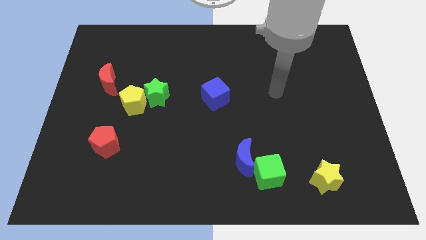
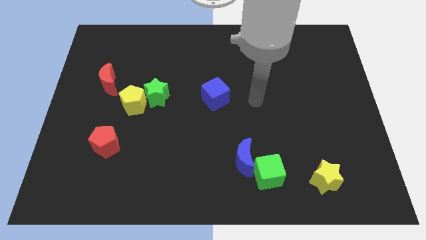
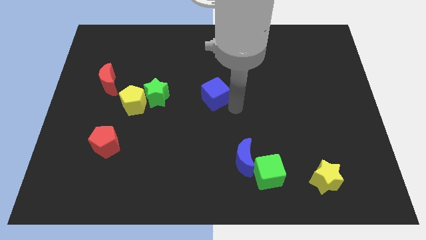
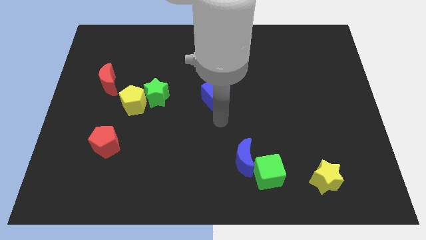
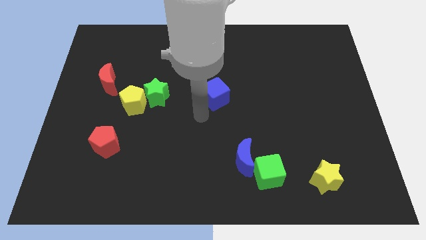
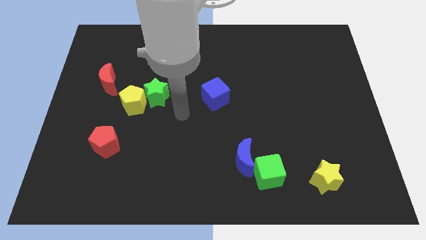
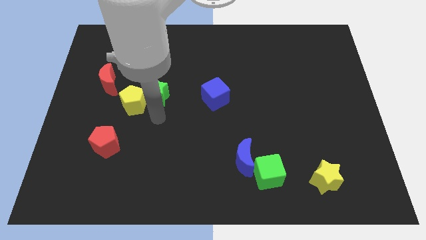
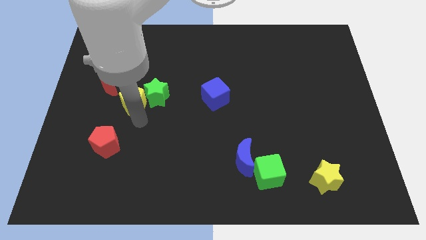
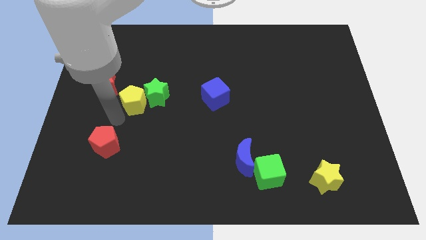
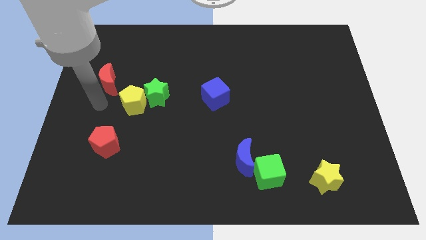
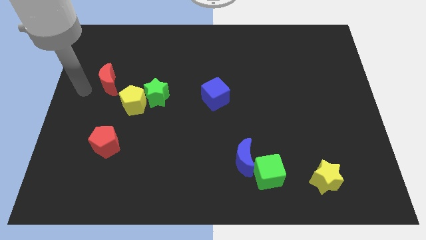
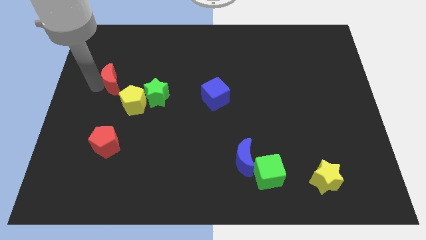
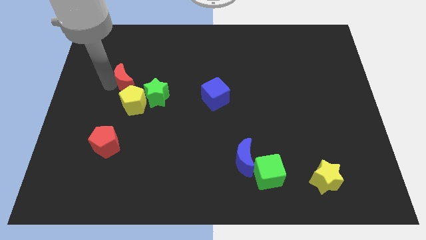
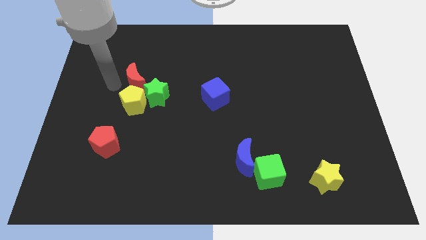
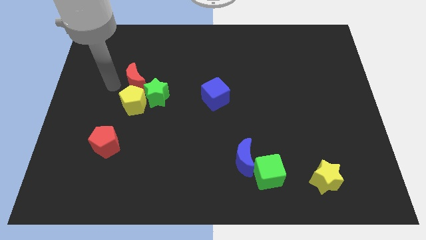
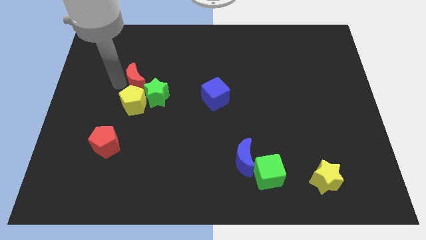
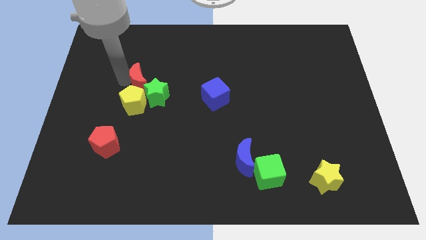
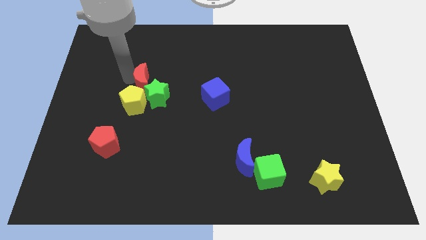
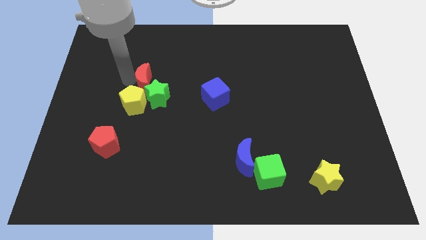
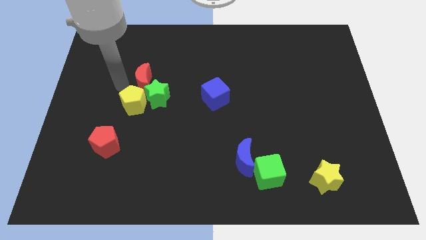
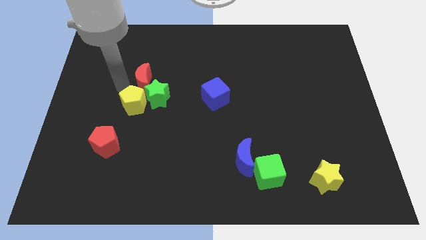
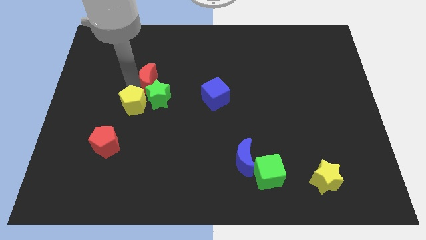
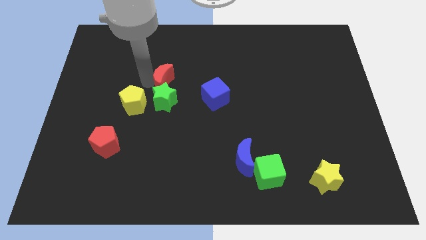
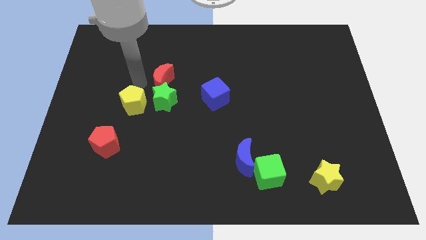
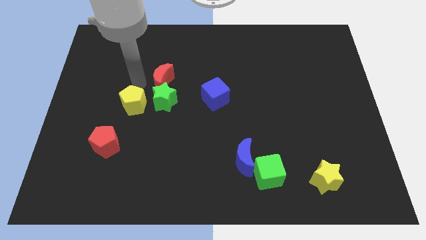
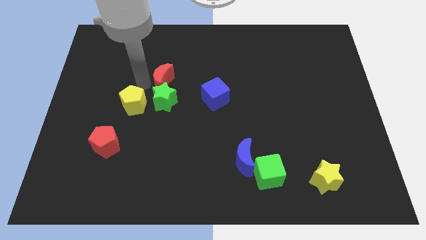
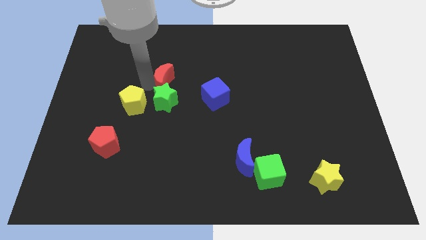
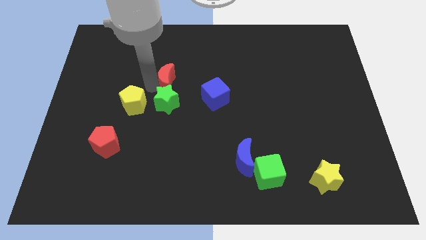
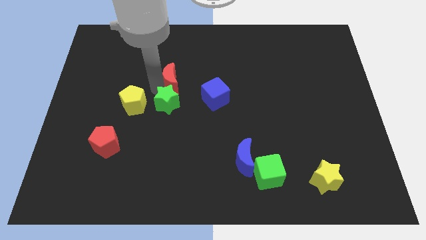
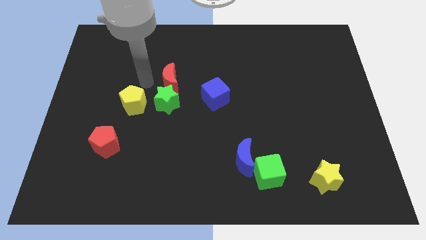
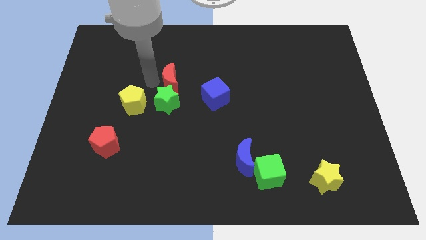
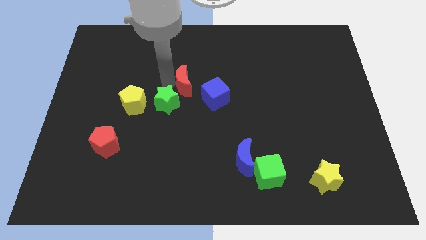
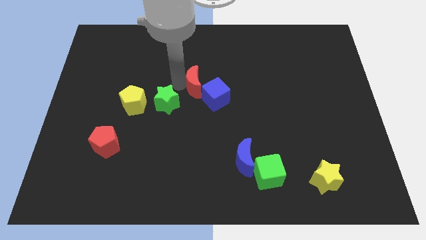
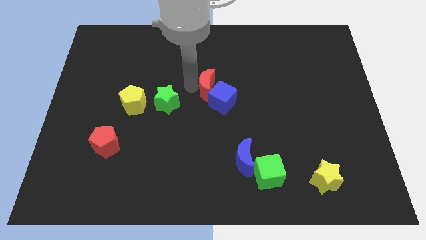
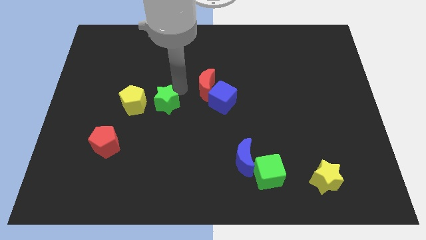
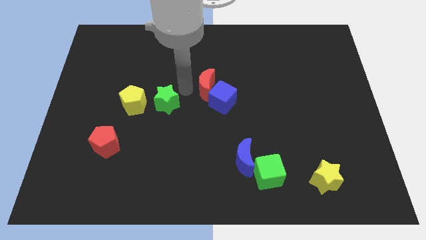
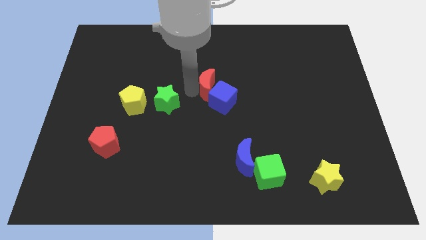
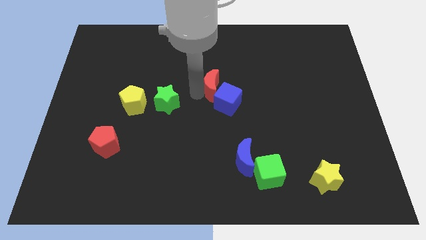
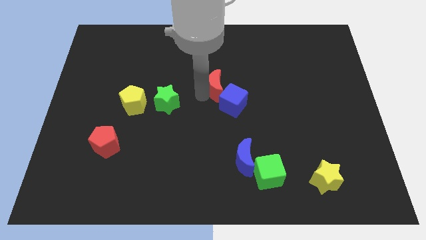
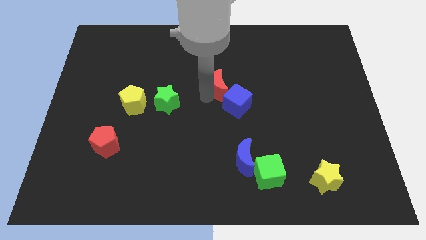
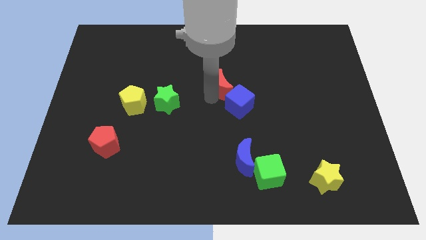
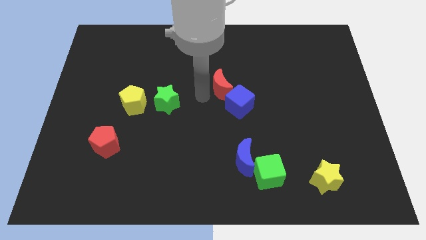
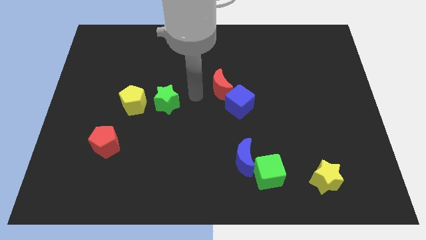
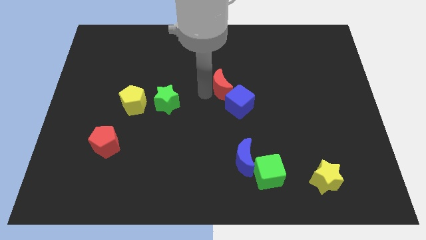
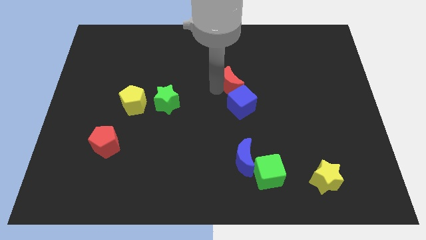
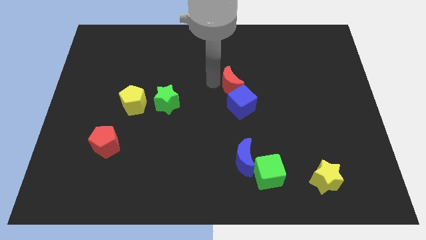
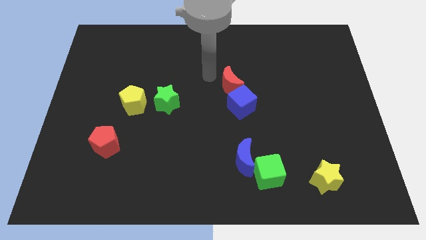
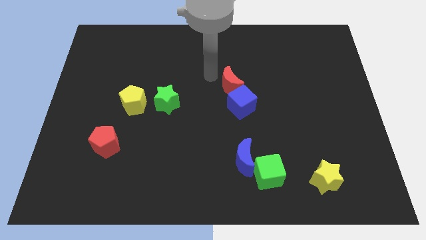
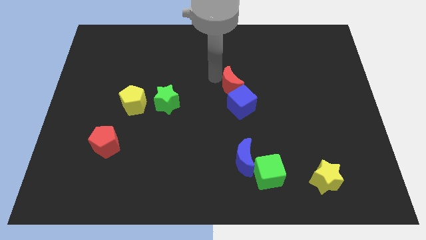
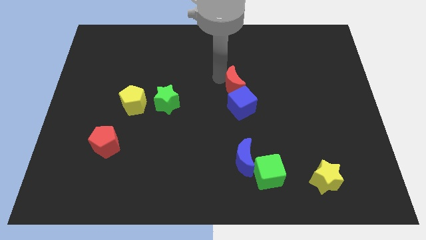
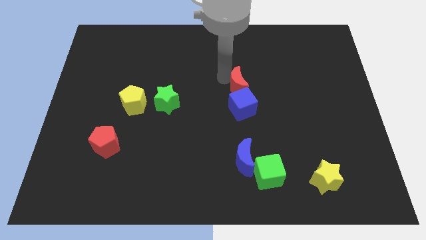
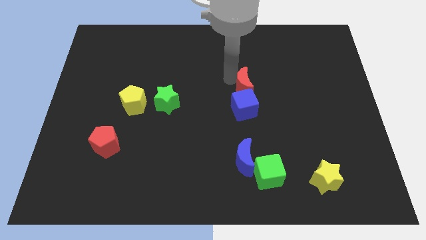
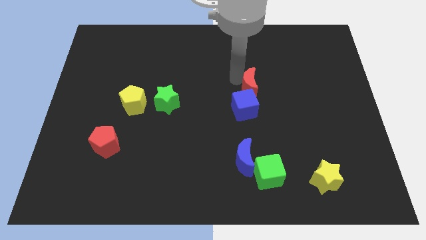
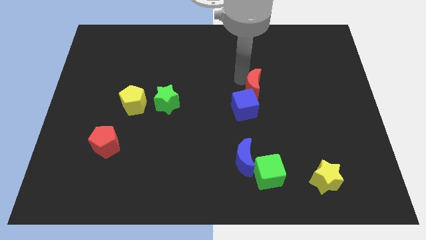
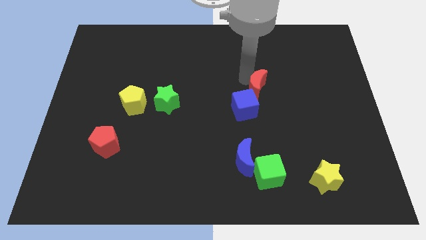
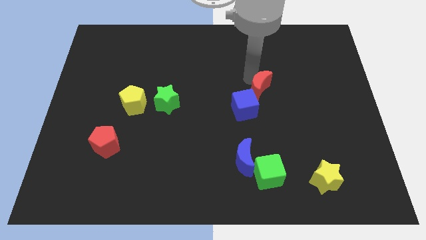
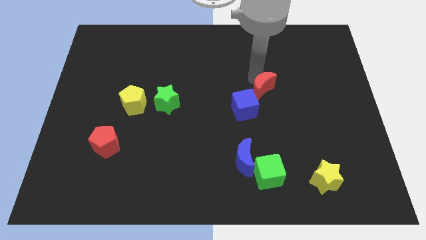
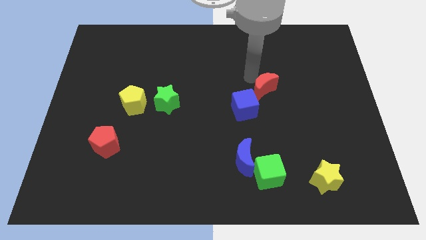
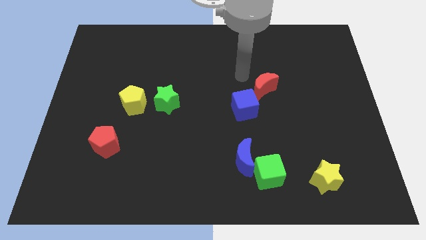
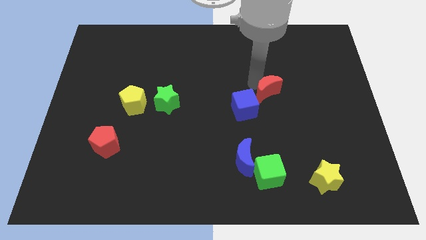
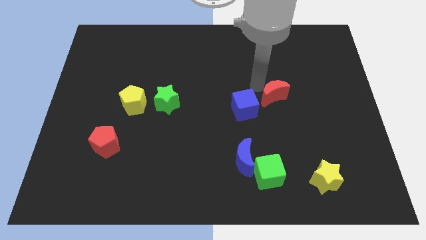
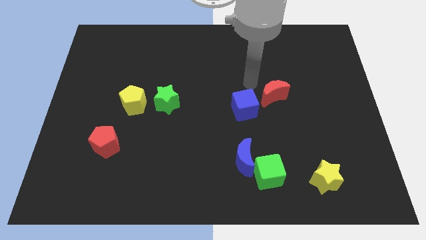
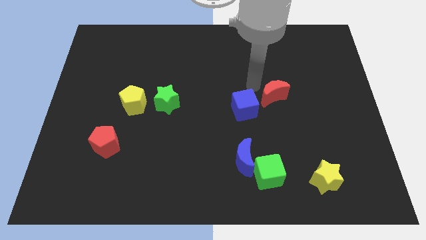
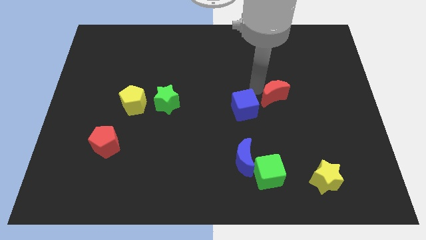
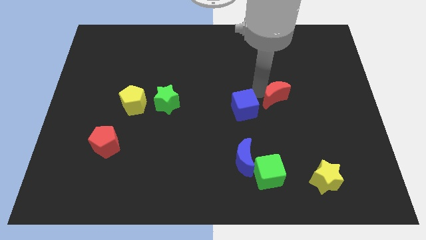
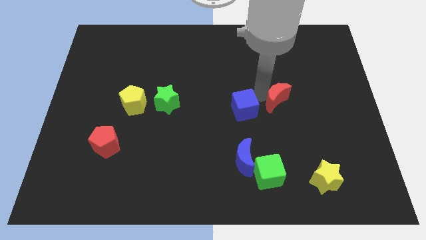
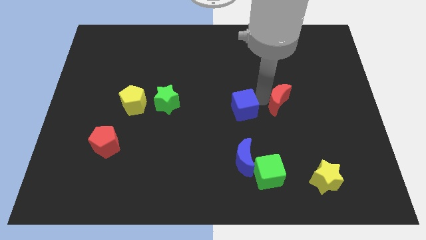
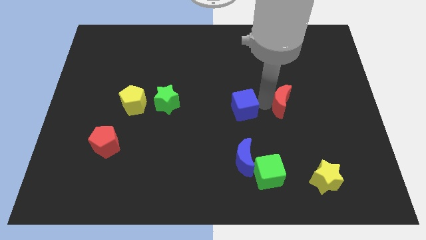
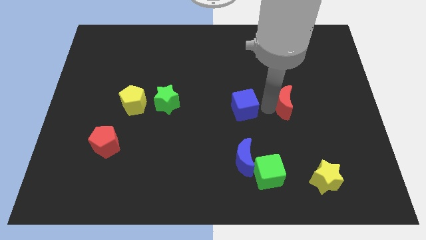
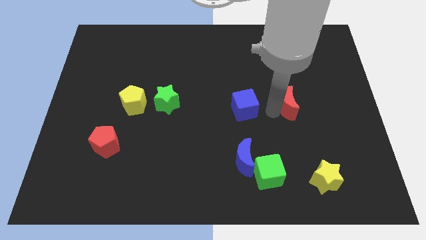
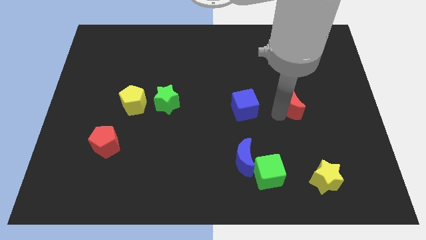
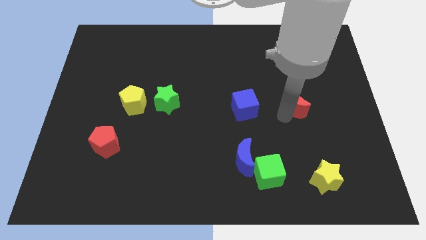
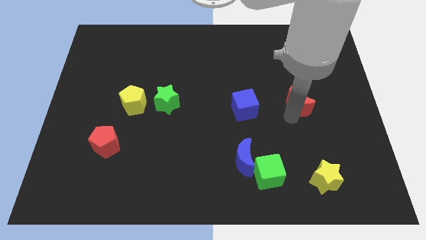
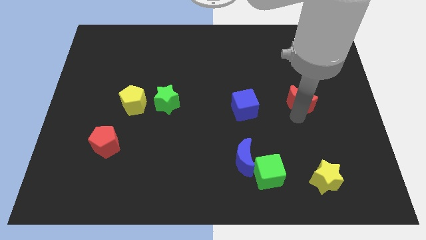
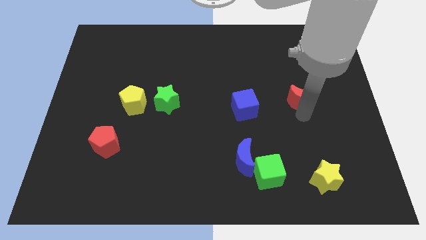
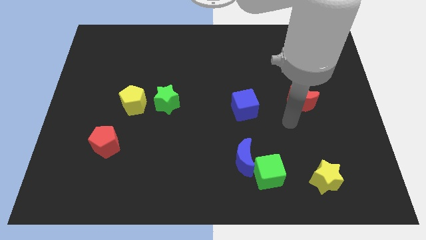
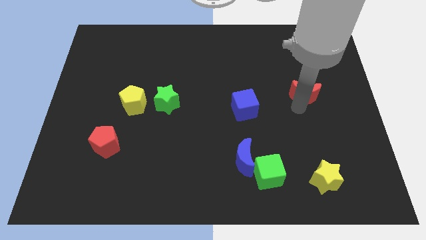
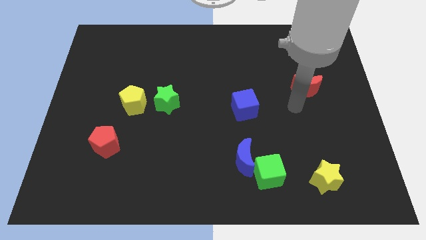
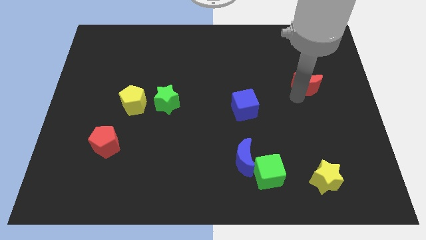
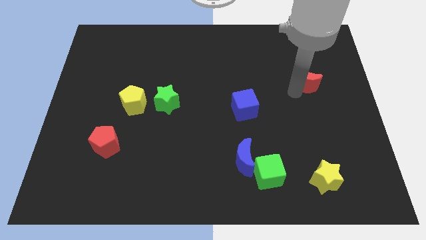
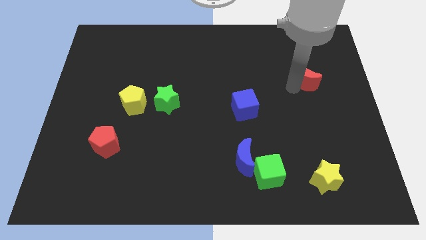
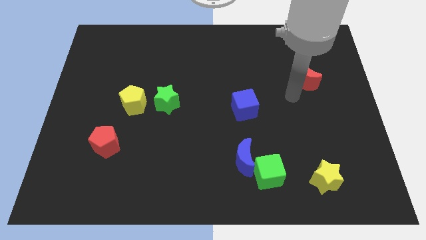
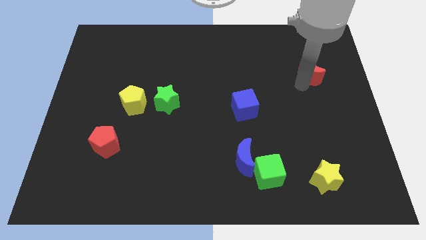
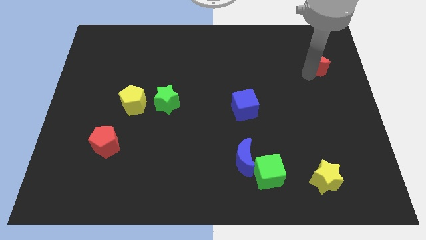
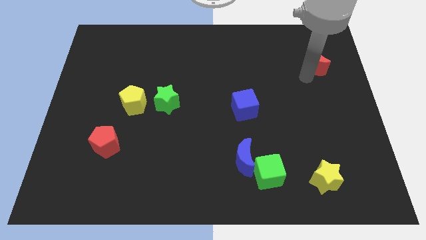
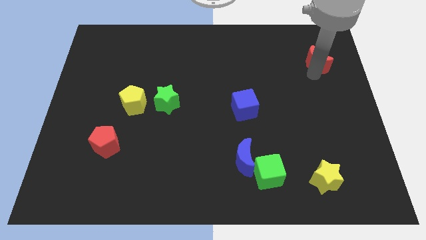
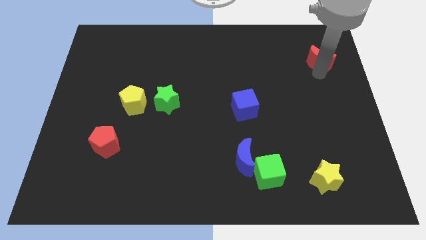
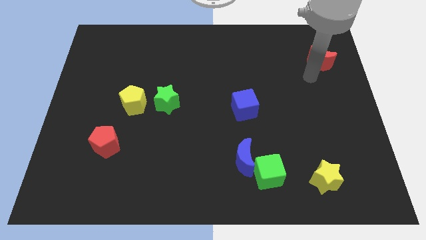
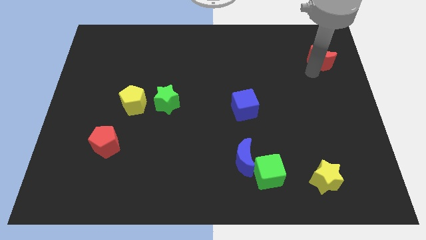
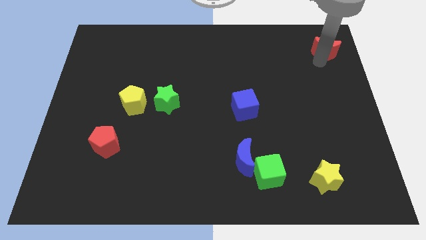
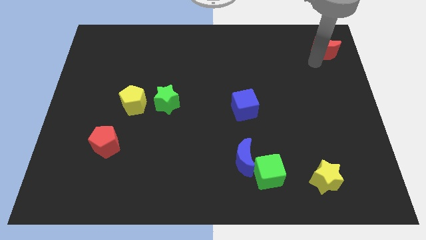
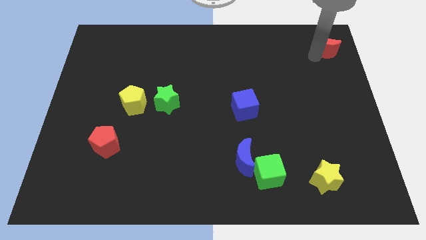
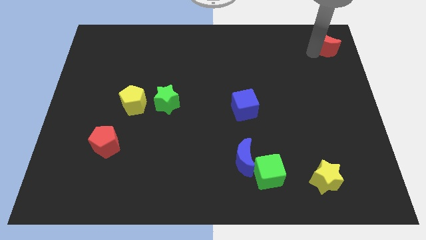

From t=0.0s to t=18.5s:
put the red moon to the top right of the board
